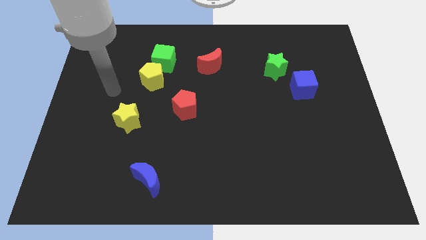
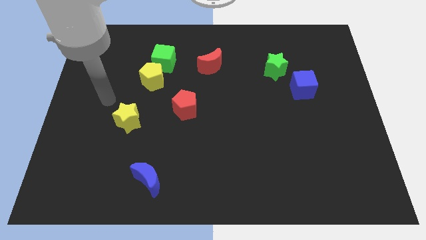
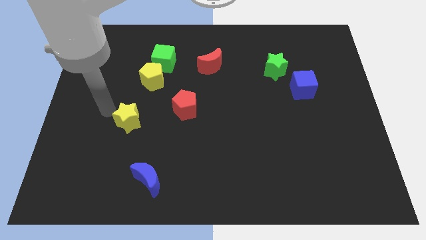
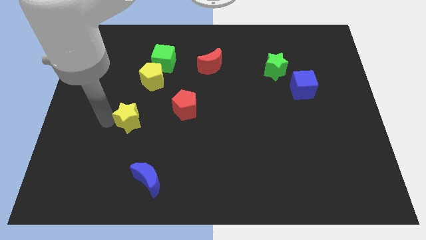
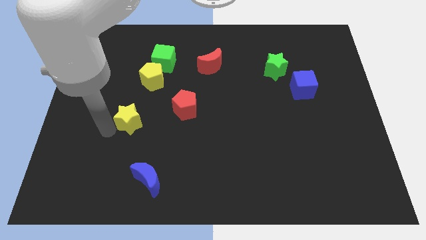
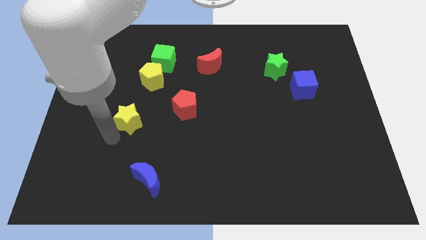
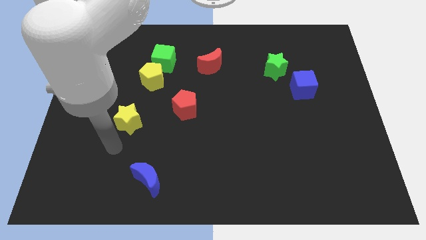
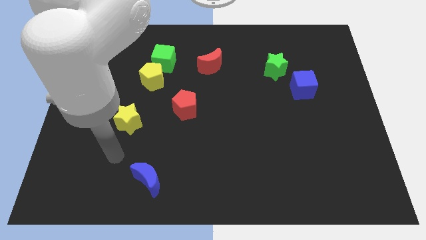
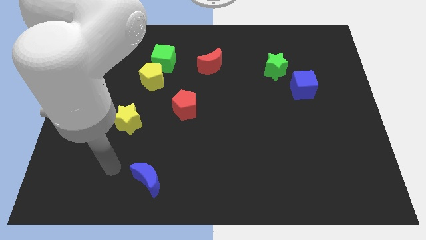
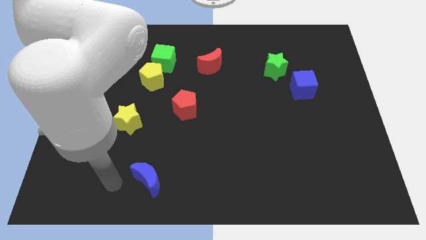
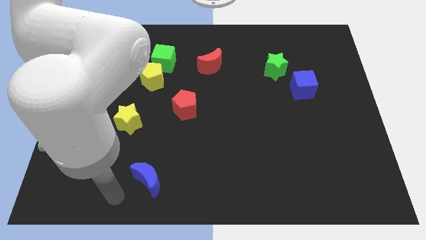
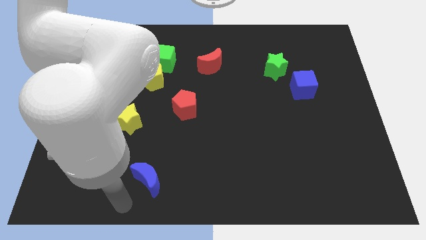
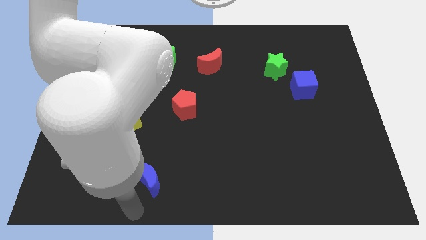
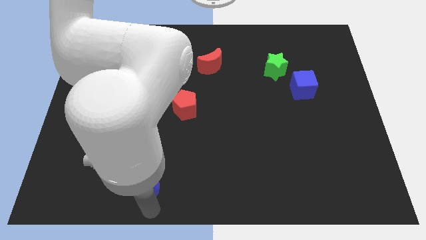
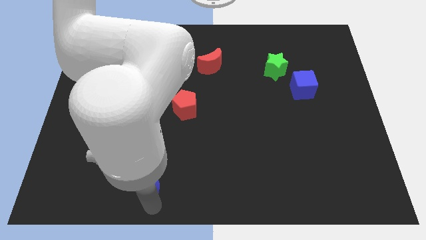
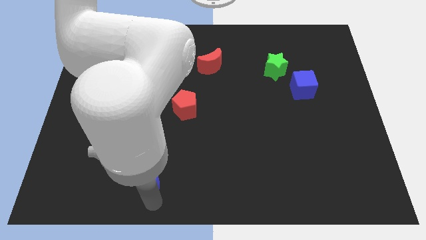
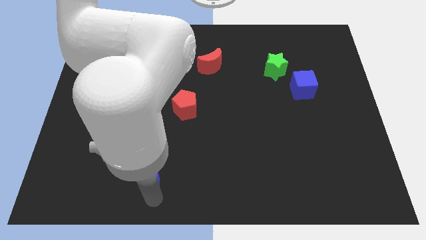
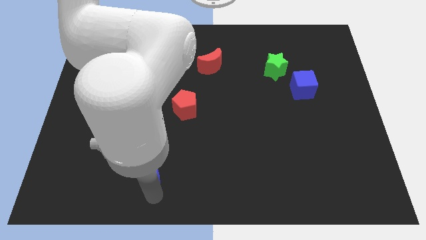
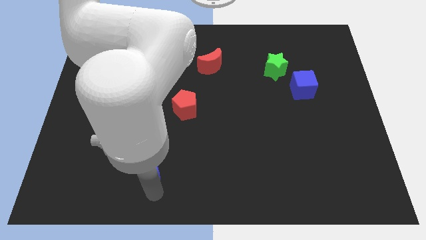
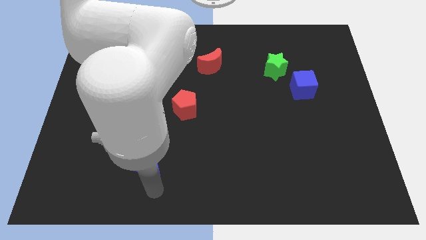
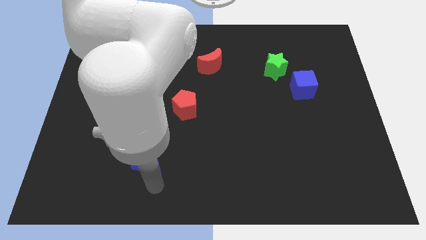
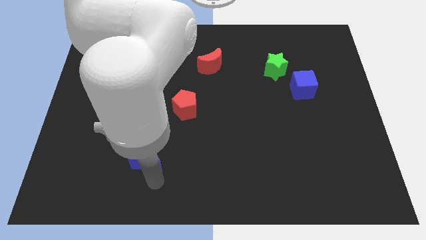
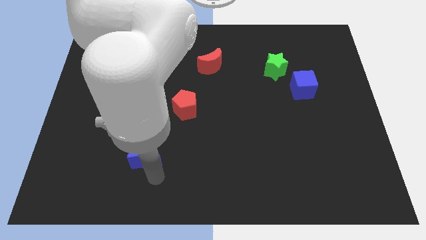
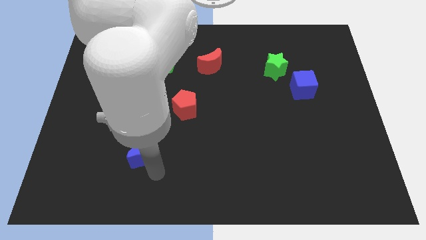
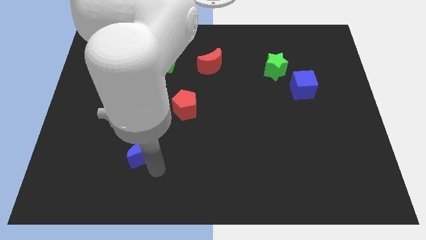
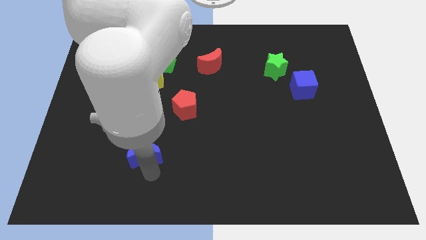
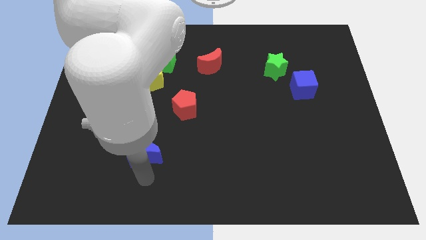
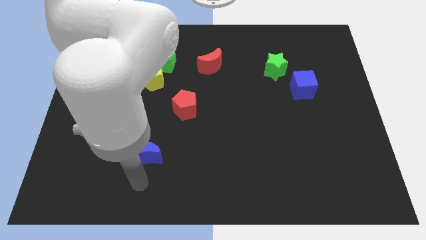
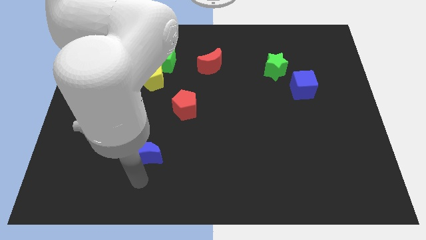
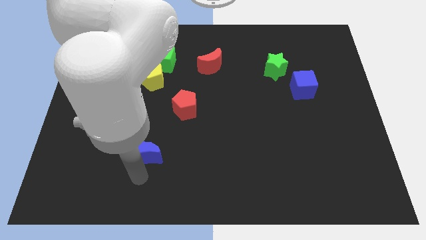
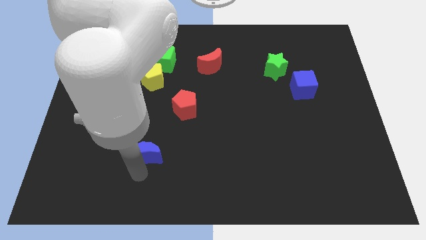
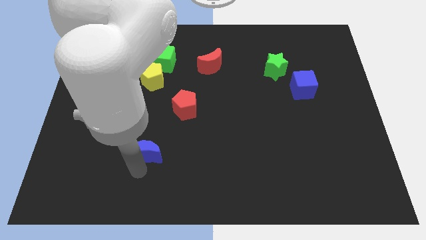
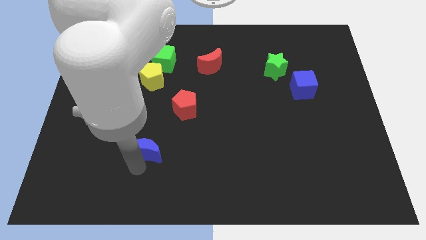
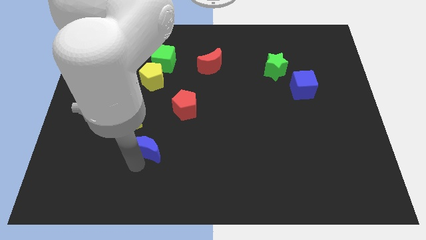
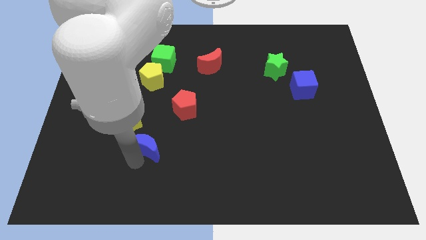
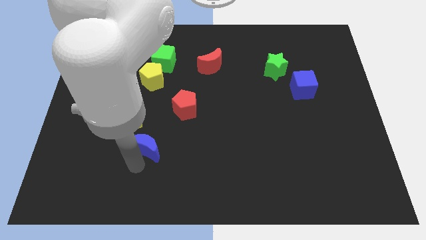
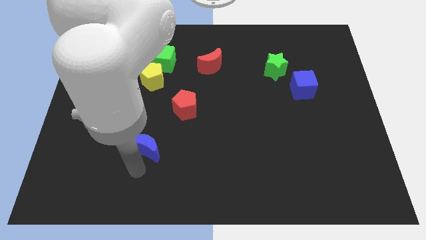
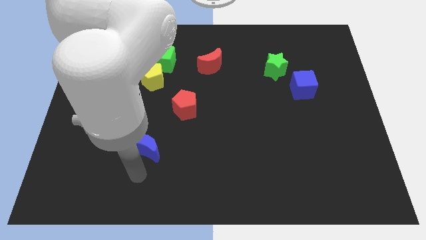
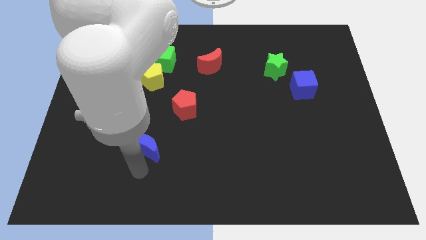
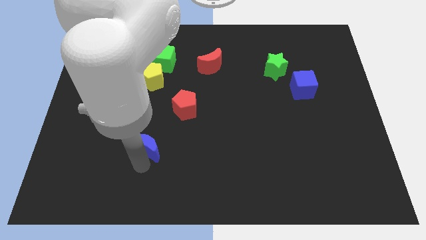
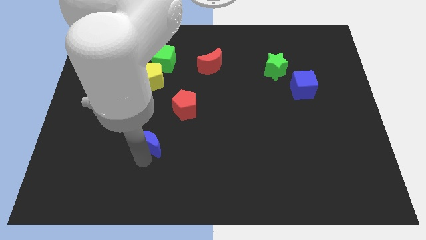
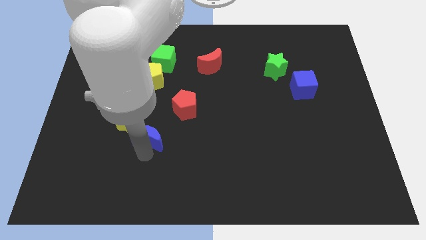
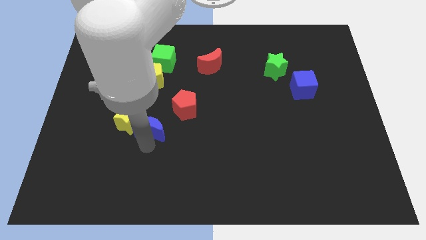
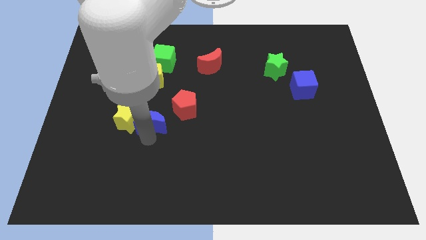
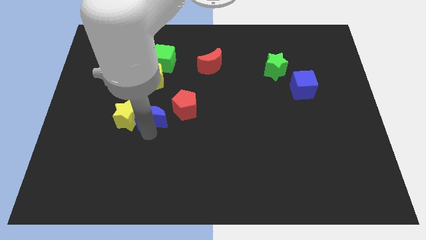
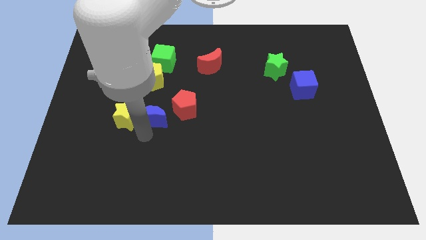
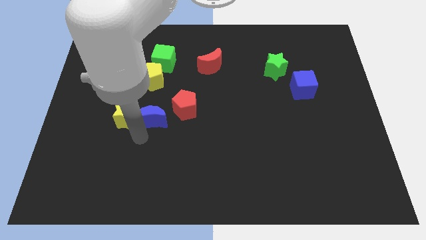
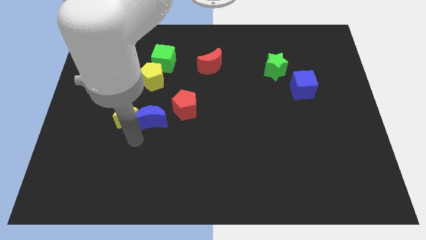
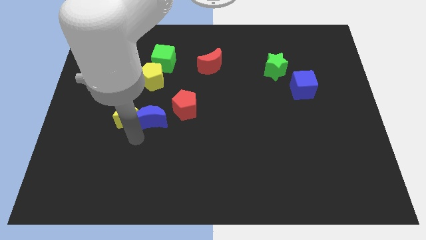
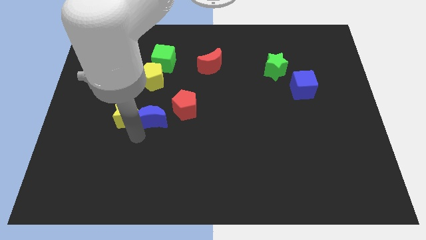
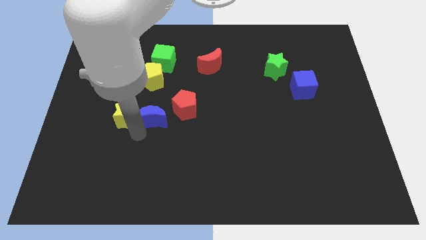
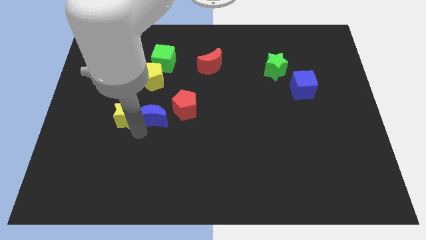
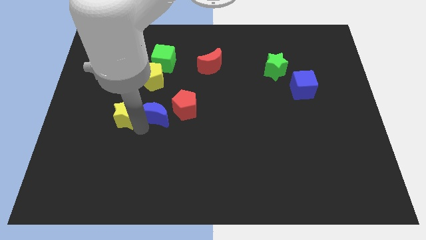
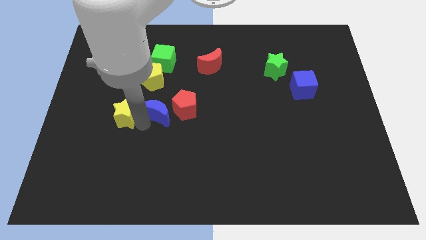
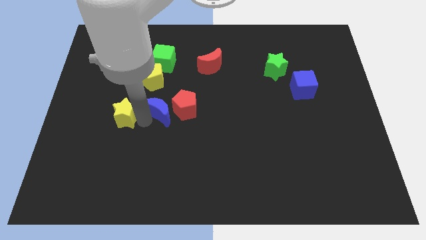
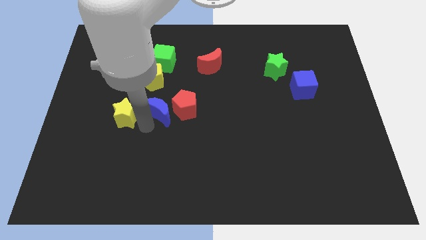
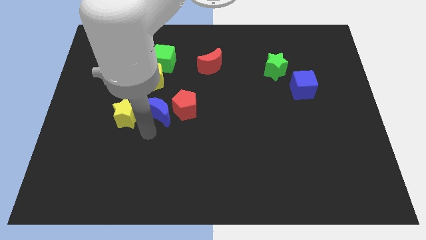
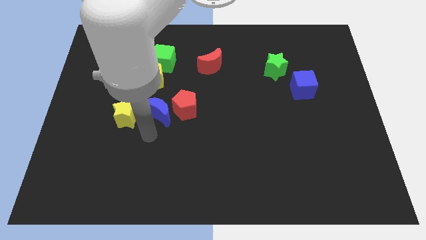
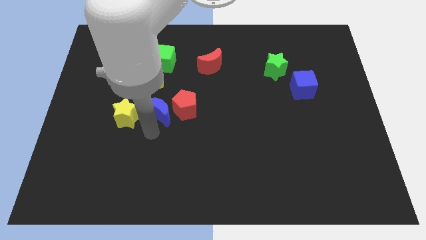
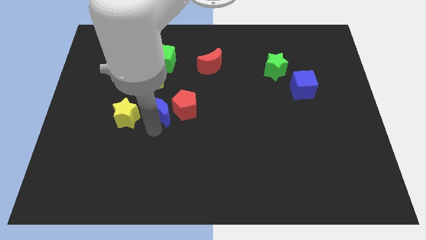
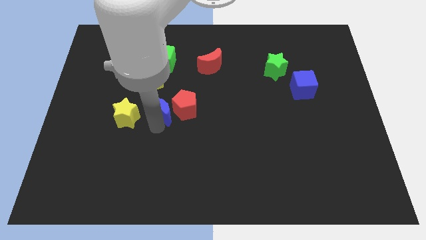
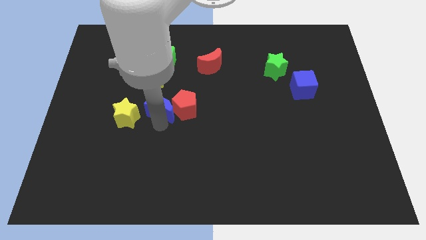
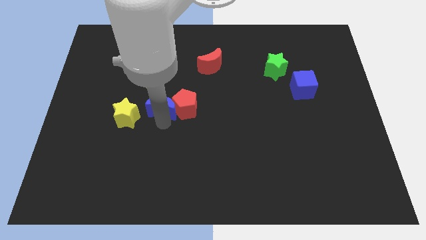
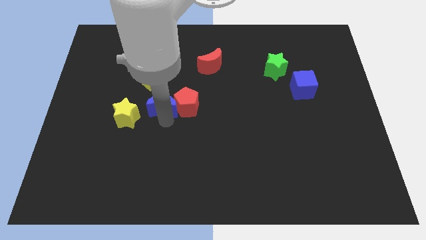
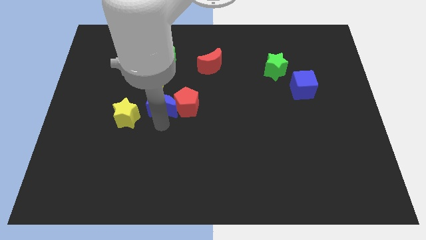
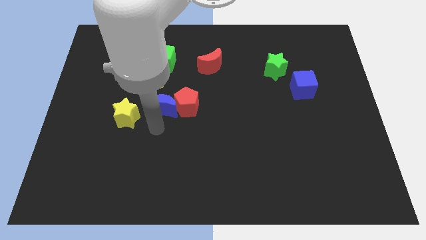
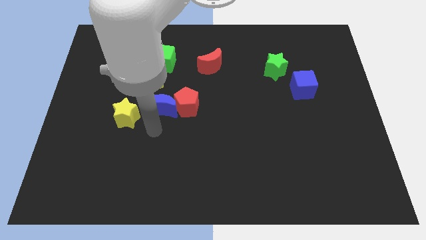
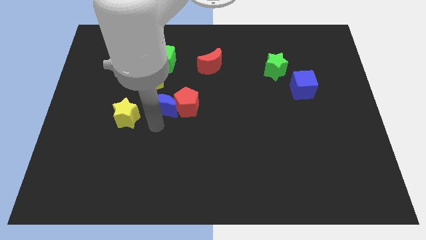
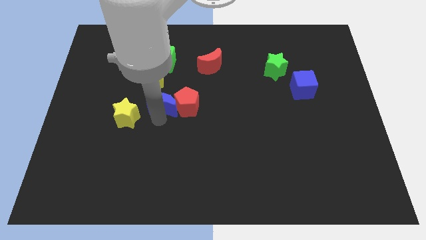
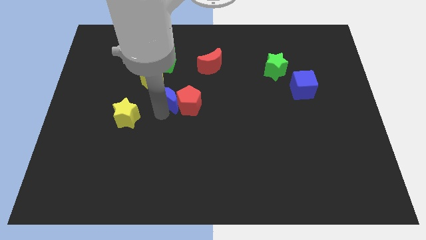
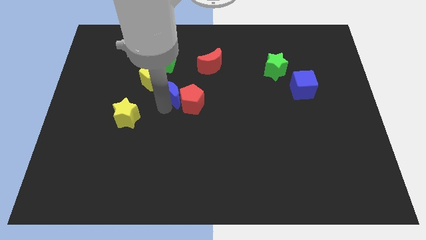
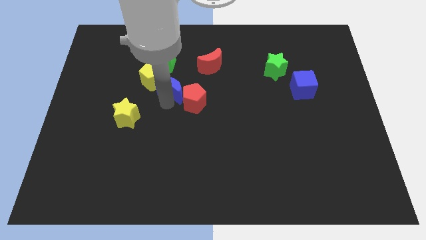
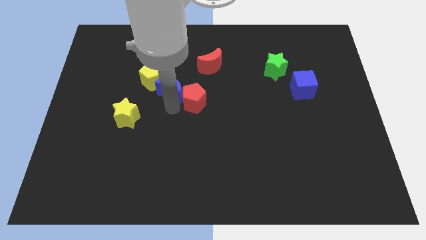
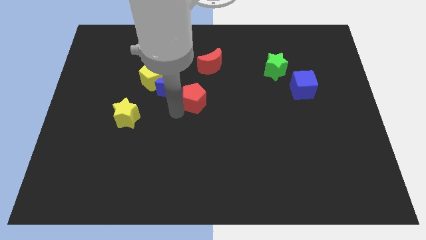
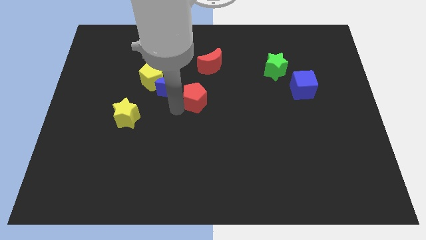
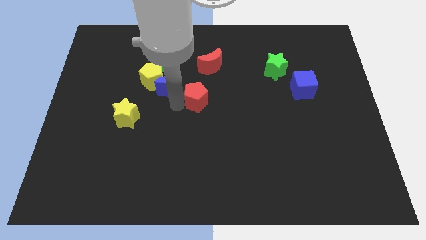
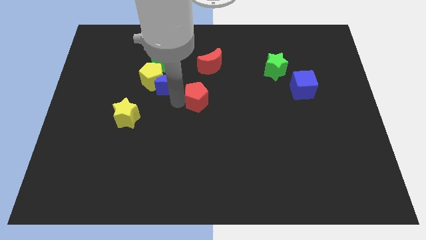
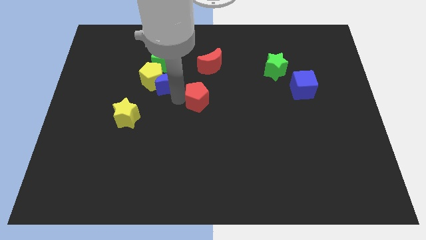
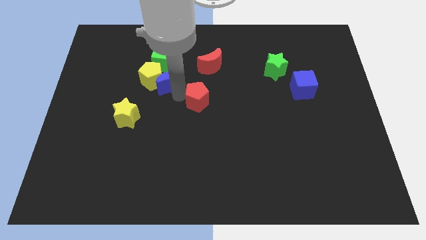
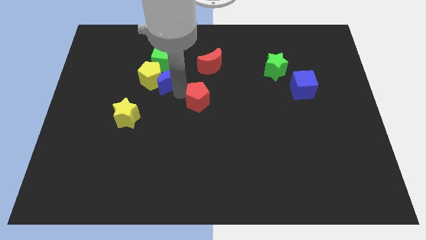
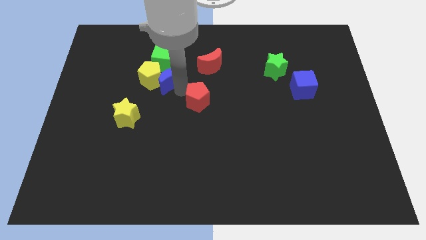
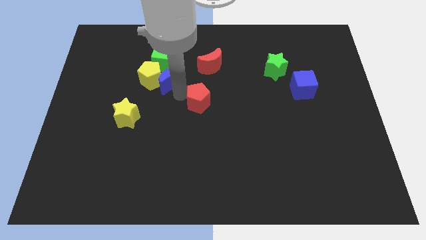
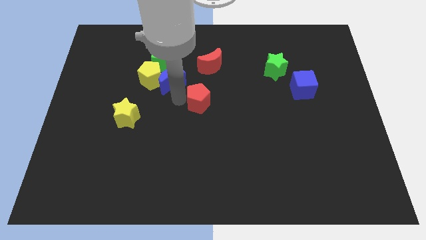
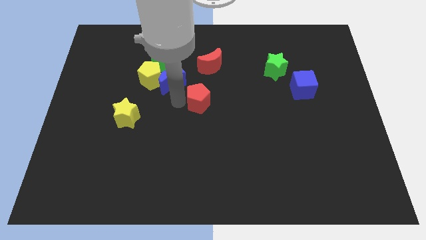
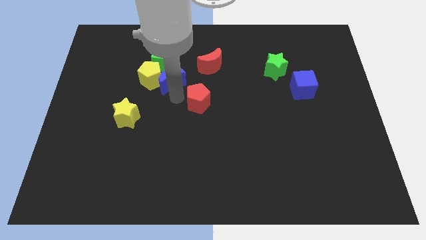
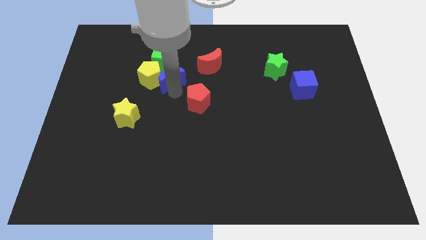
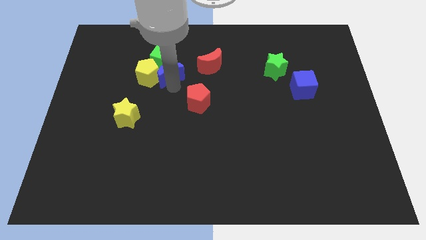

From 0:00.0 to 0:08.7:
push the blue moon next to the green cube
